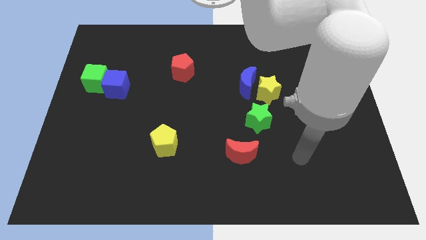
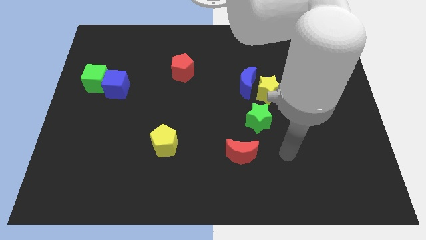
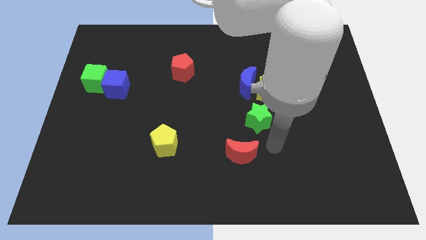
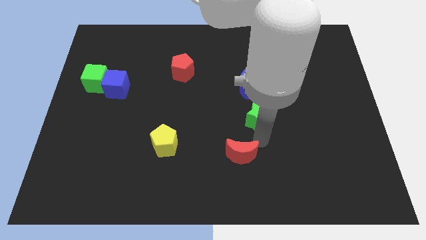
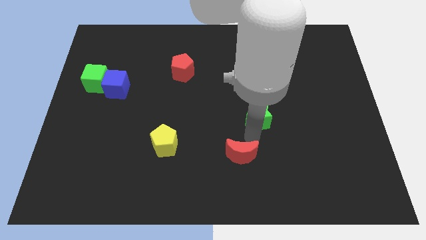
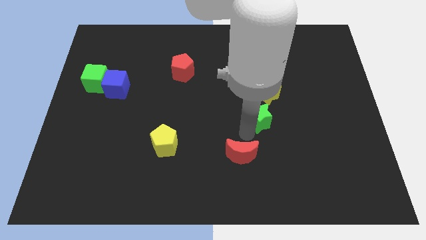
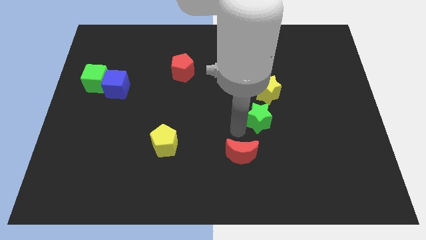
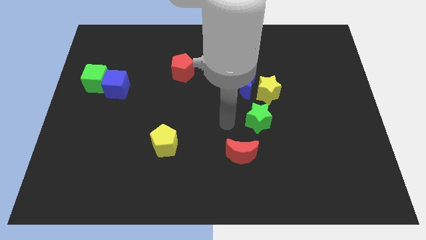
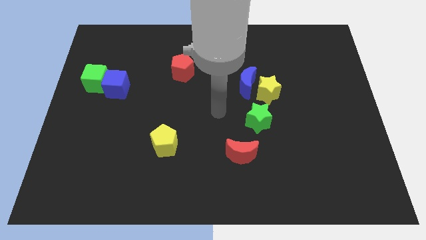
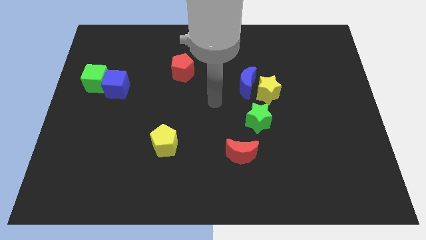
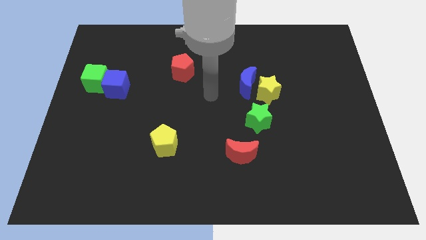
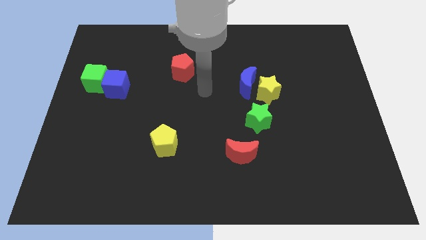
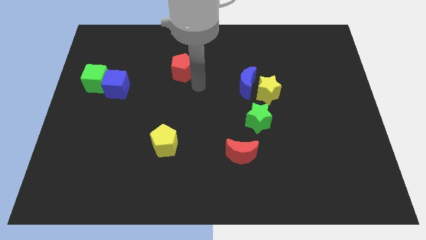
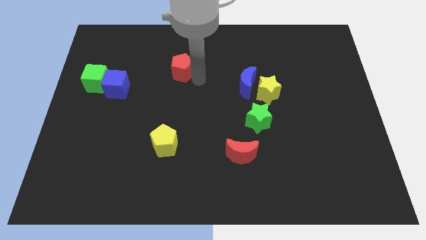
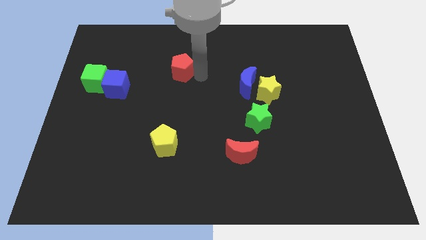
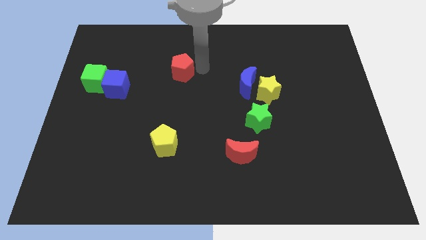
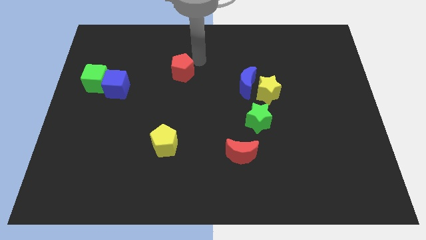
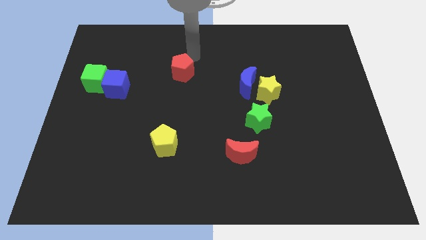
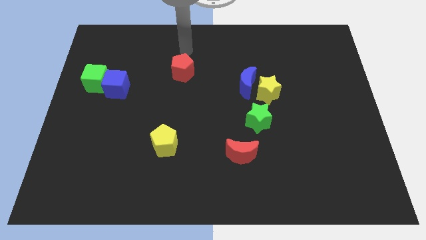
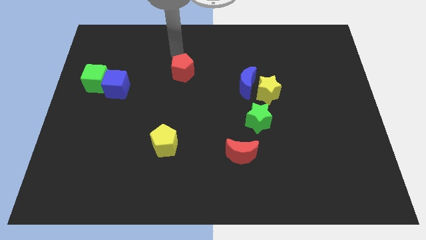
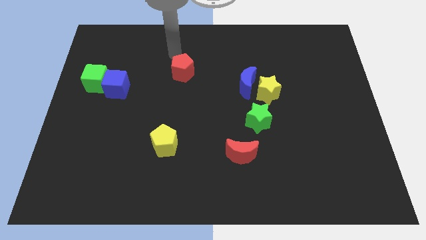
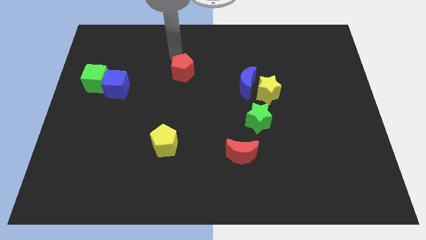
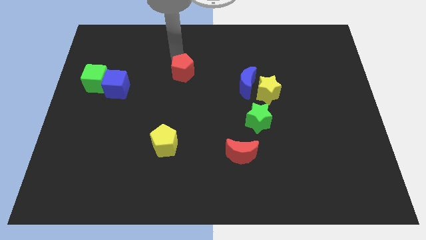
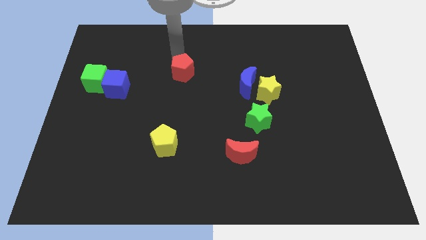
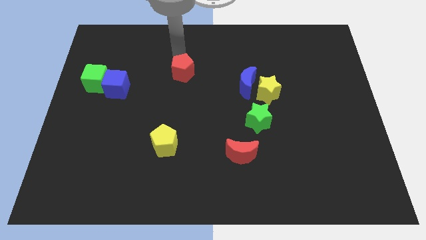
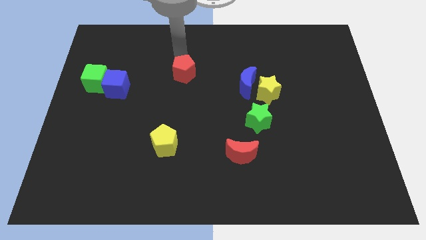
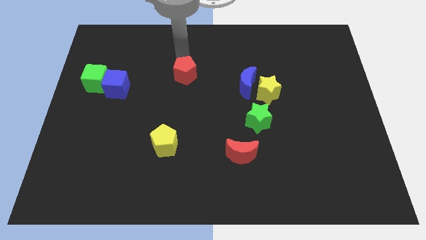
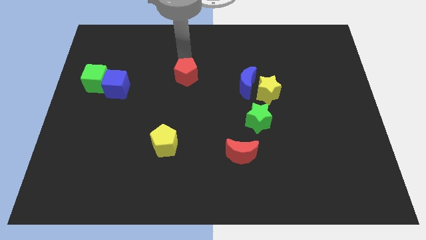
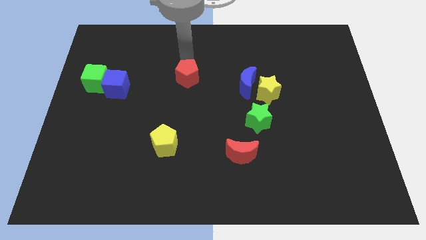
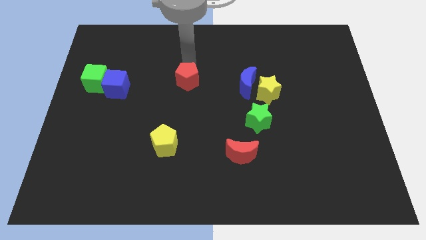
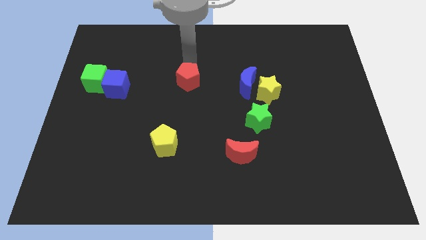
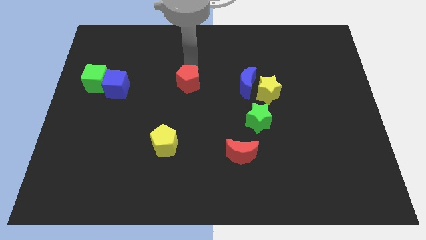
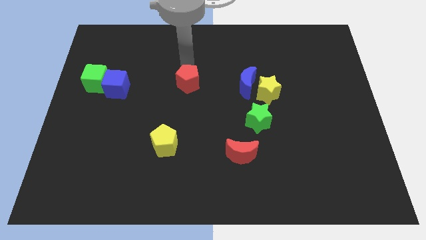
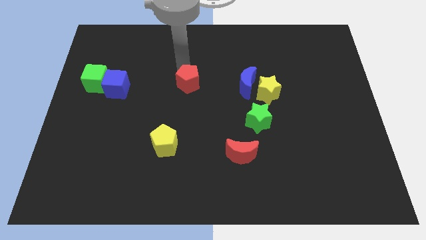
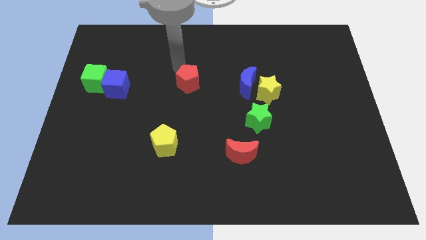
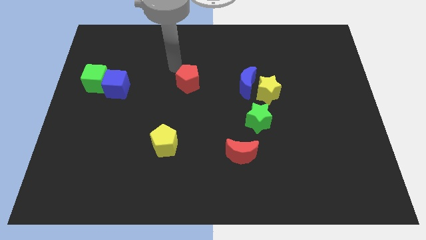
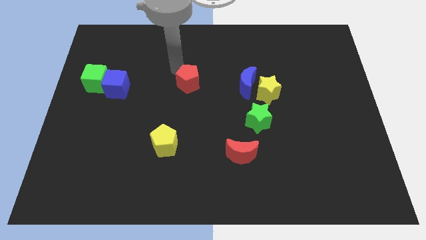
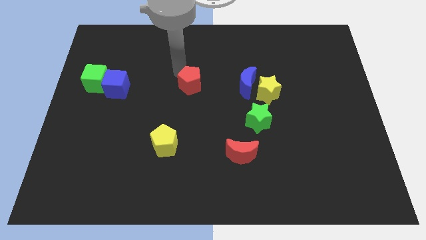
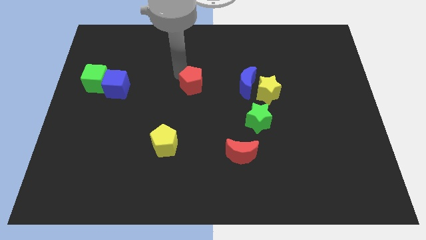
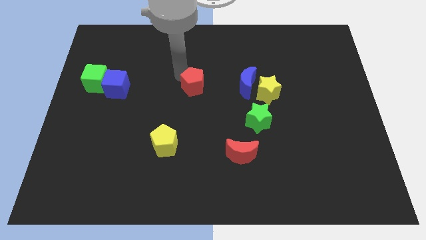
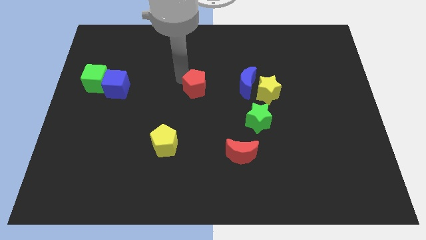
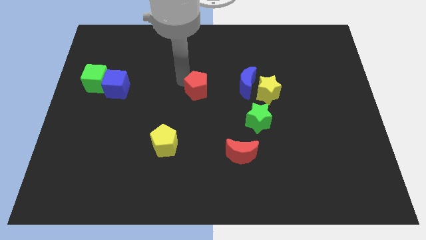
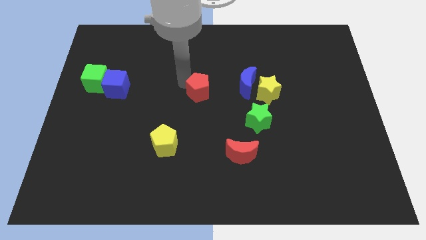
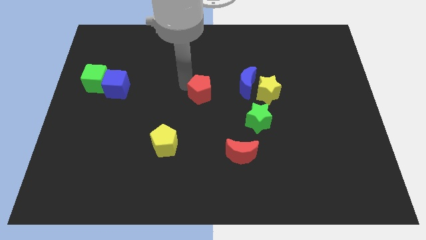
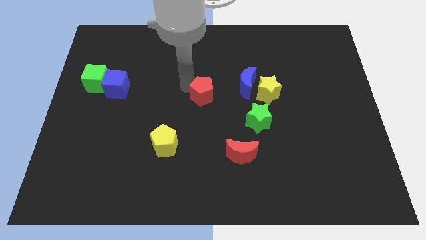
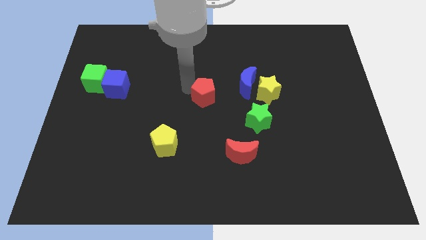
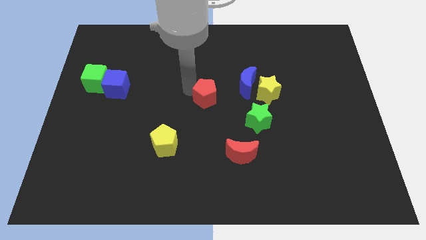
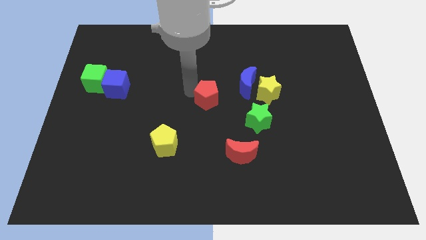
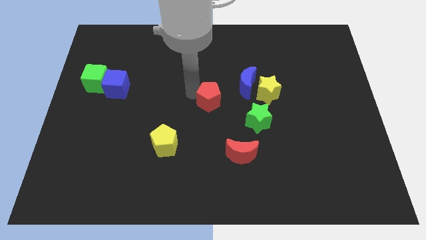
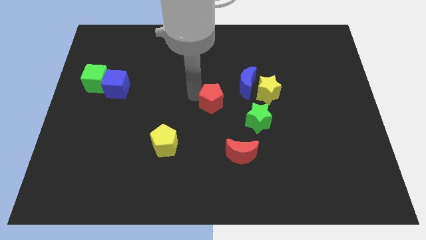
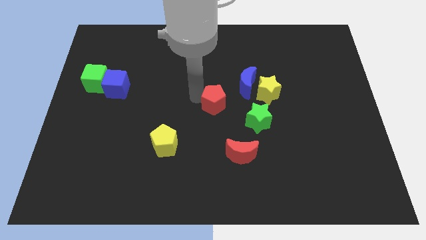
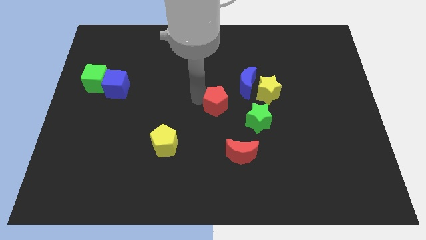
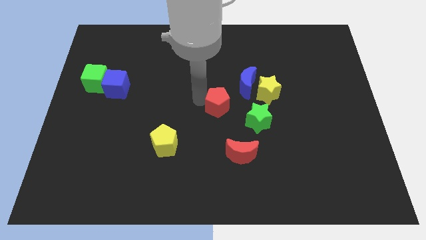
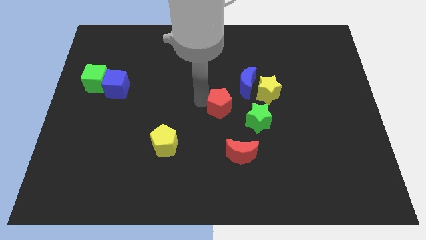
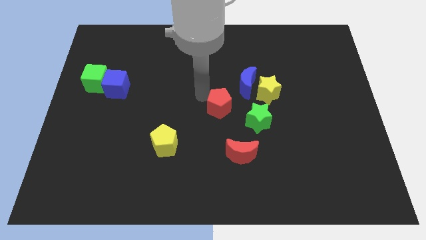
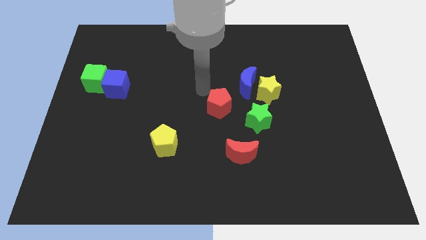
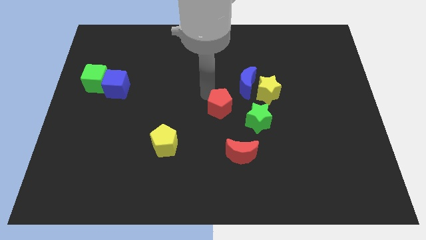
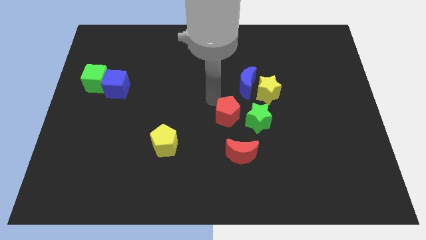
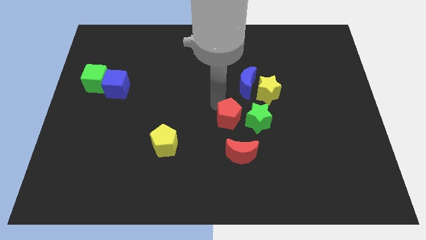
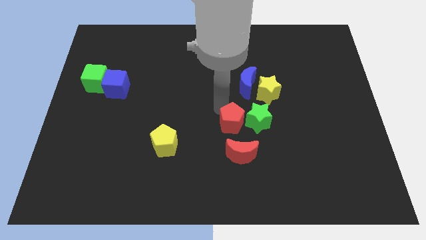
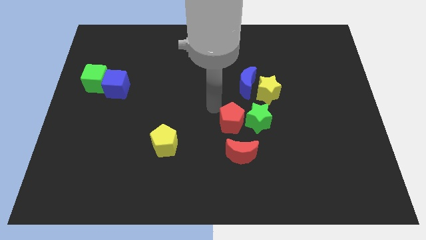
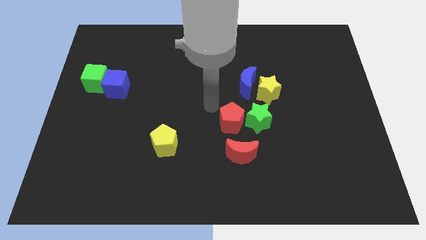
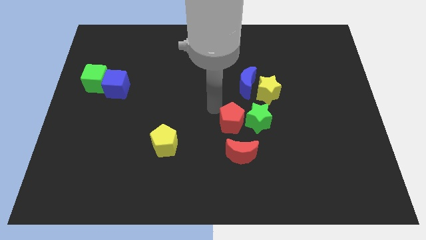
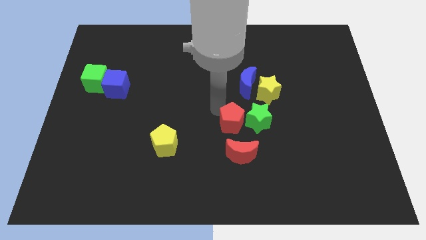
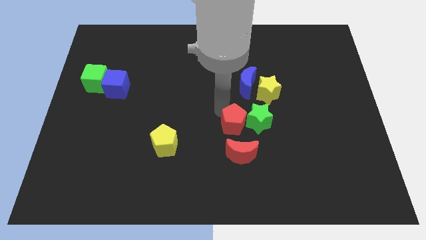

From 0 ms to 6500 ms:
slide the red pentagon downwards and right diagonally

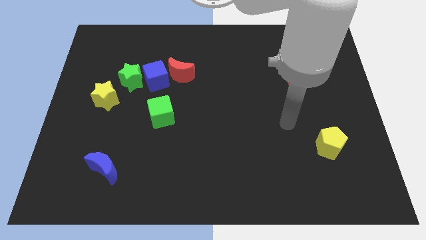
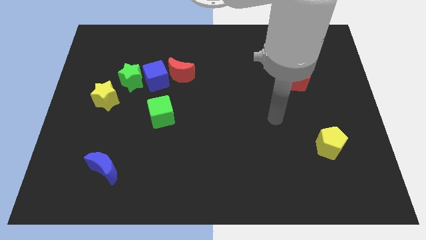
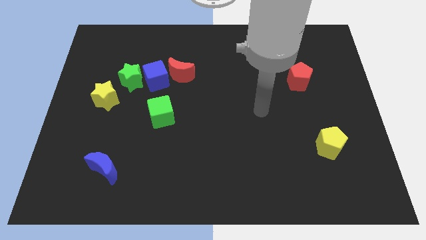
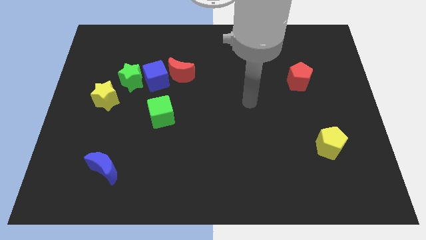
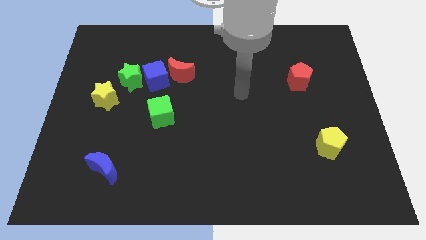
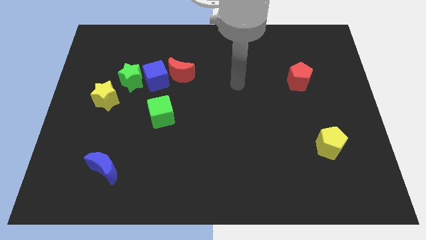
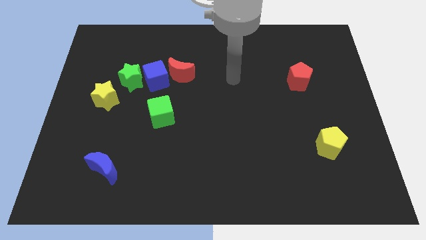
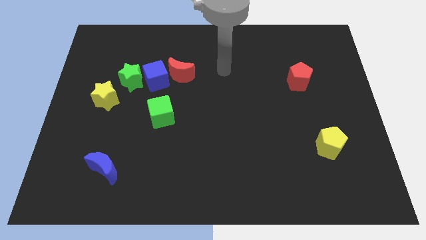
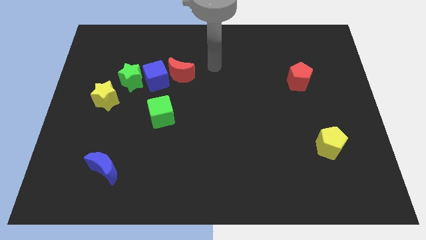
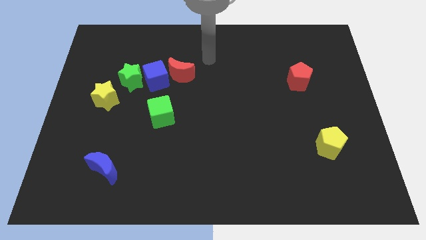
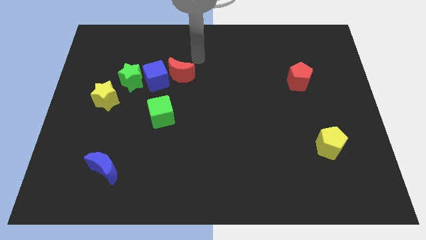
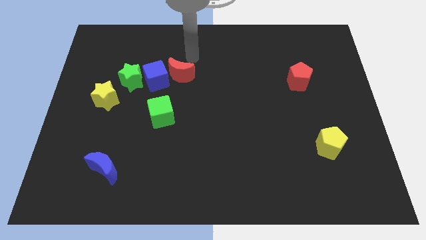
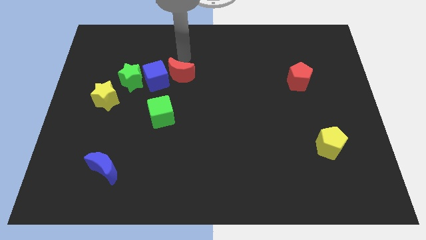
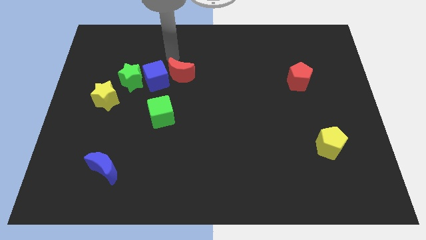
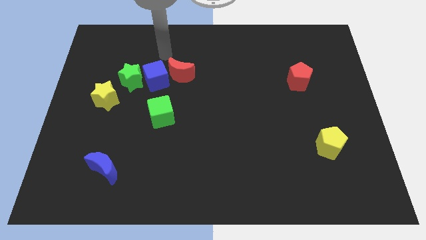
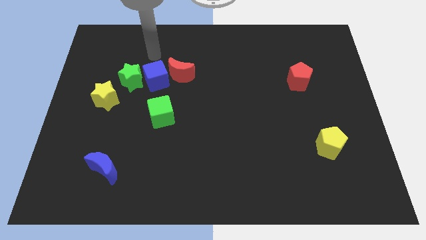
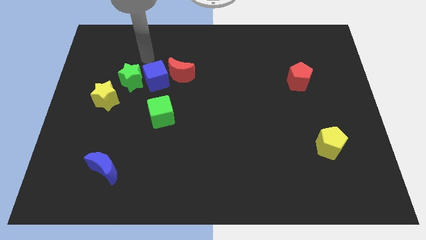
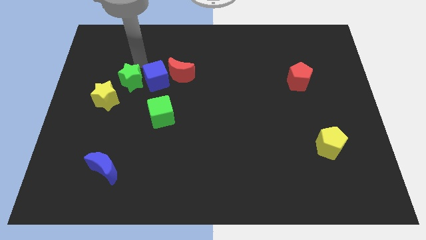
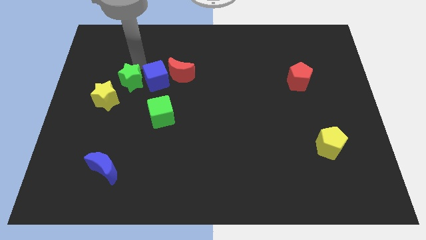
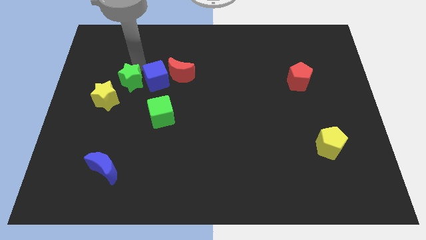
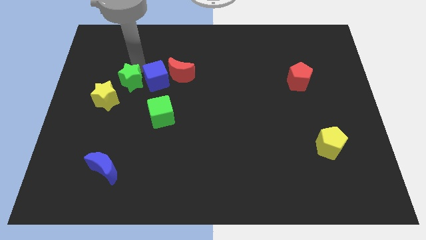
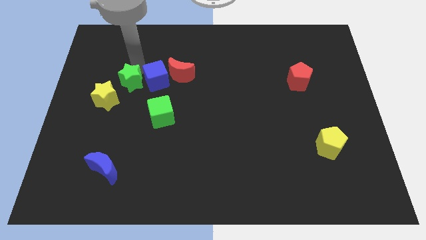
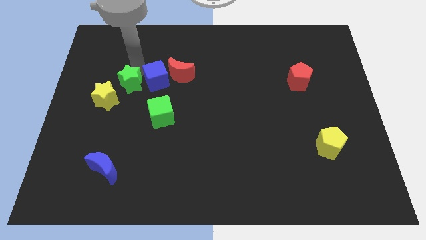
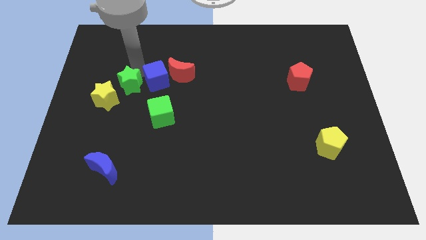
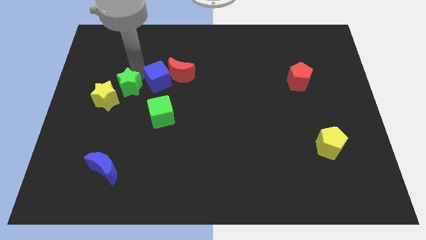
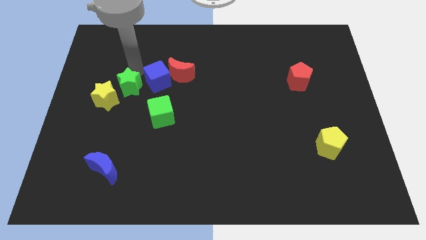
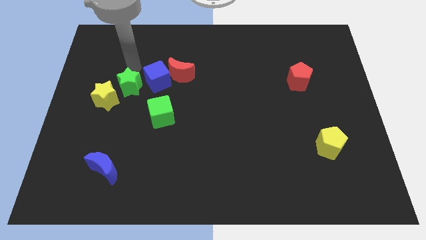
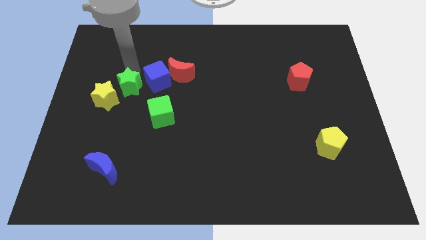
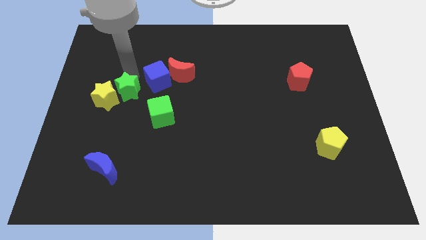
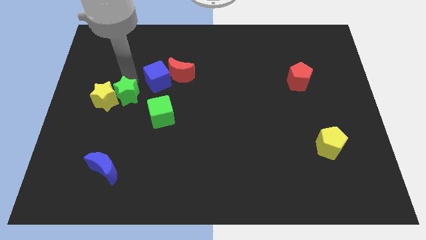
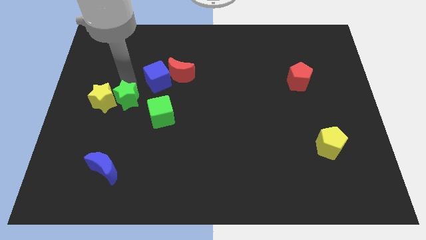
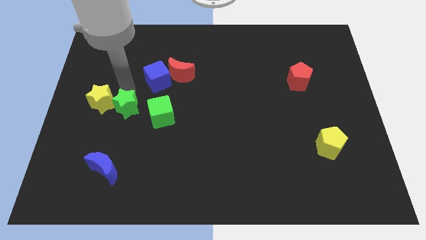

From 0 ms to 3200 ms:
slide the green star somewhat downwards
